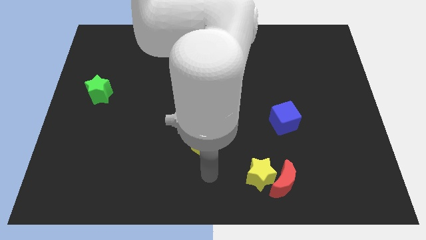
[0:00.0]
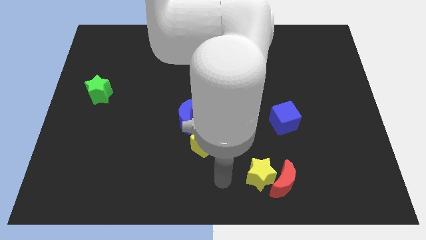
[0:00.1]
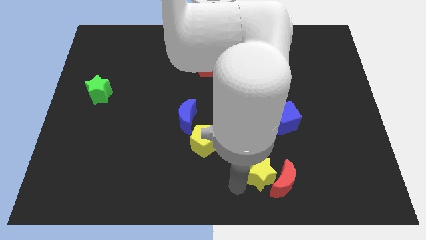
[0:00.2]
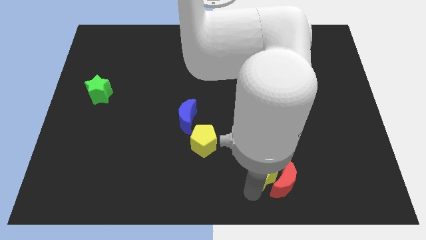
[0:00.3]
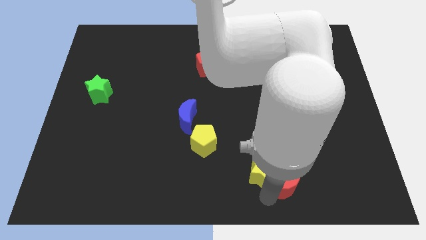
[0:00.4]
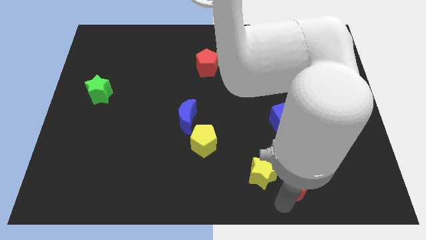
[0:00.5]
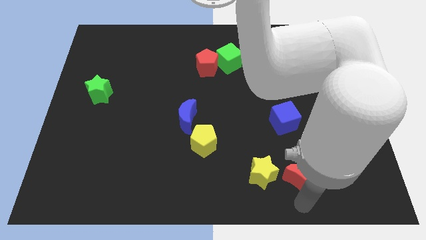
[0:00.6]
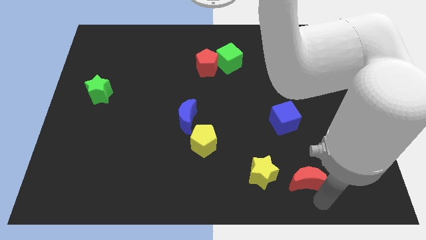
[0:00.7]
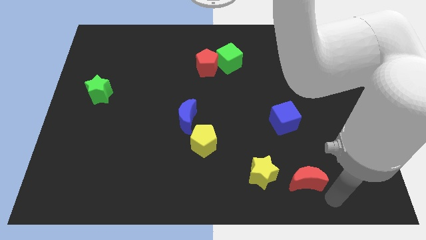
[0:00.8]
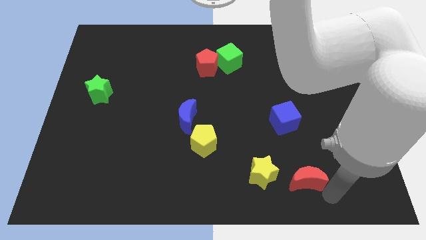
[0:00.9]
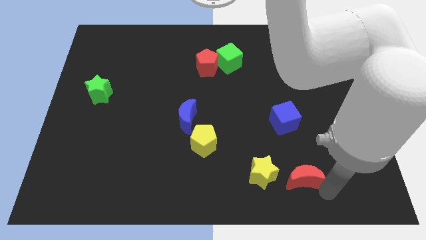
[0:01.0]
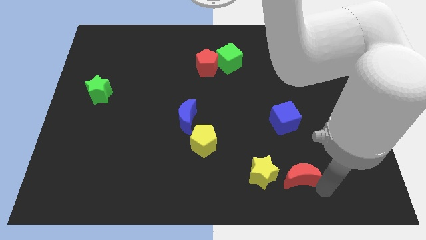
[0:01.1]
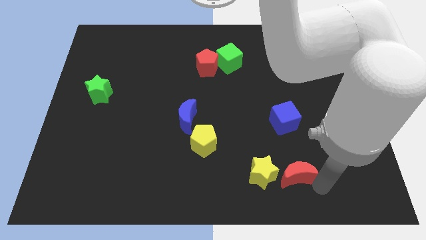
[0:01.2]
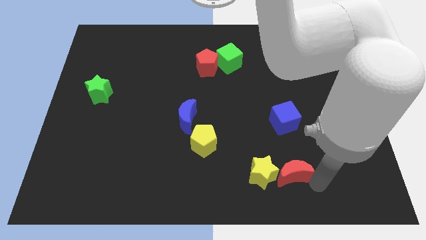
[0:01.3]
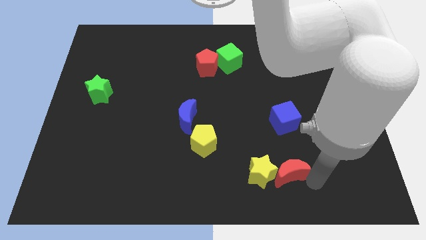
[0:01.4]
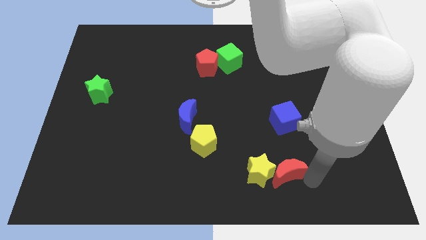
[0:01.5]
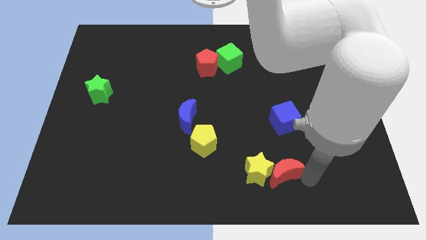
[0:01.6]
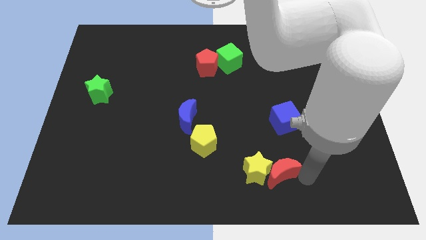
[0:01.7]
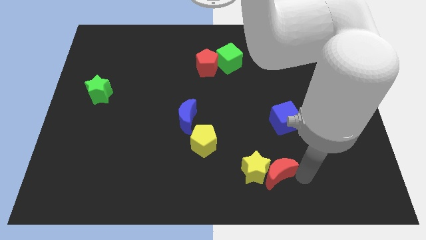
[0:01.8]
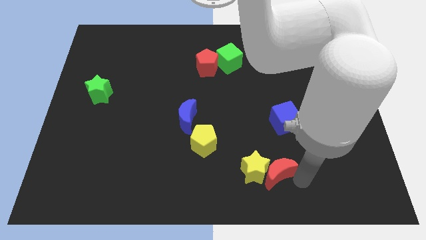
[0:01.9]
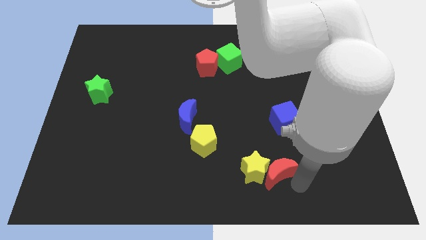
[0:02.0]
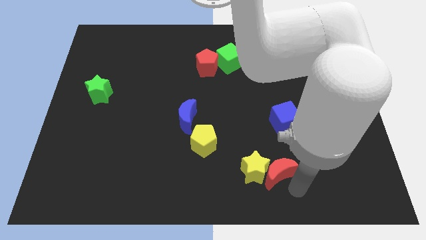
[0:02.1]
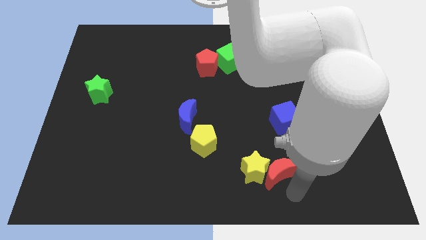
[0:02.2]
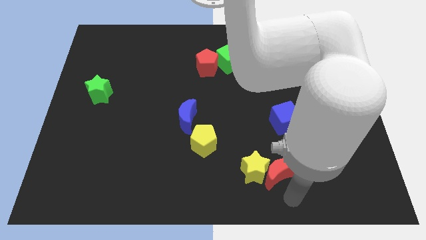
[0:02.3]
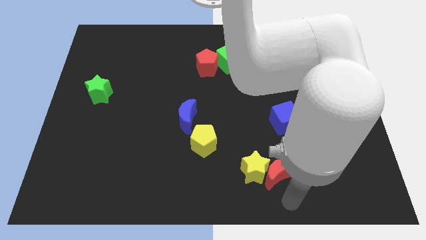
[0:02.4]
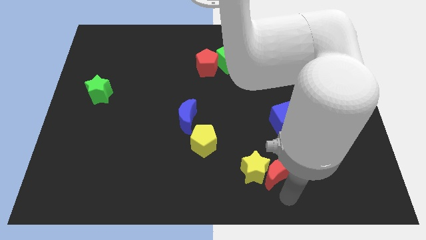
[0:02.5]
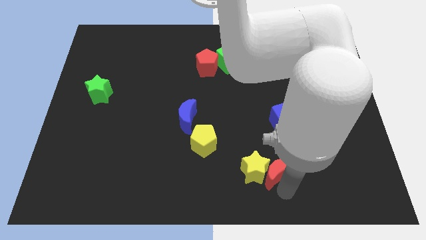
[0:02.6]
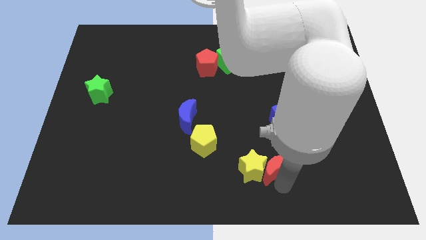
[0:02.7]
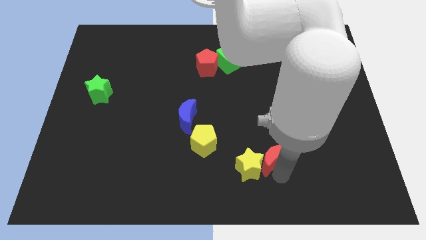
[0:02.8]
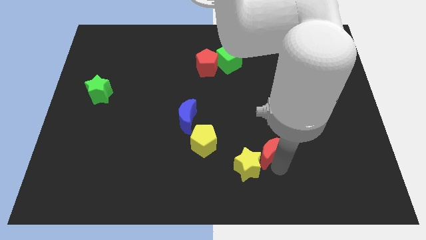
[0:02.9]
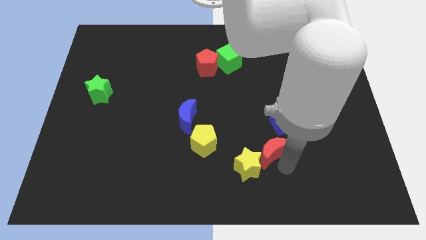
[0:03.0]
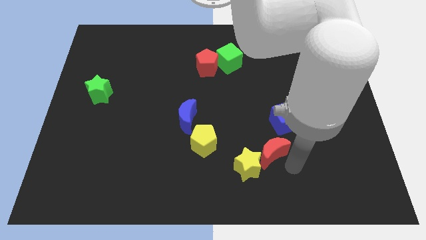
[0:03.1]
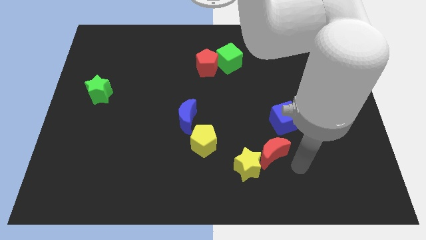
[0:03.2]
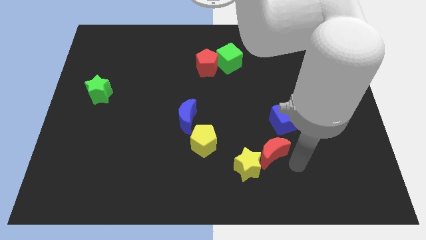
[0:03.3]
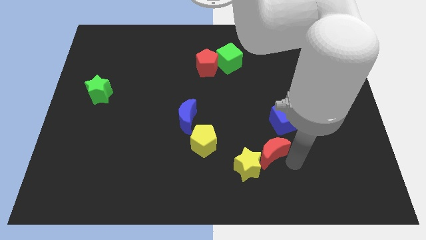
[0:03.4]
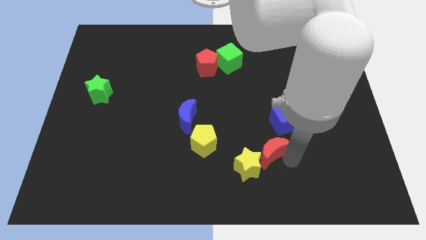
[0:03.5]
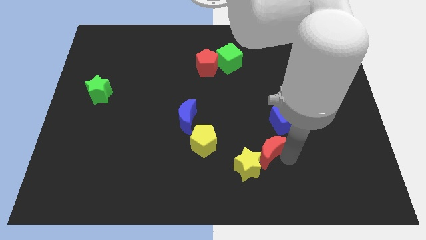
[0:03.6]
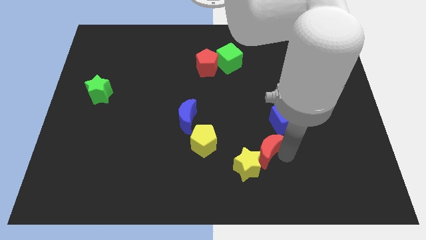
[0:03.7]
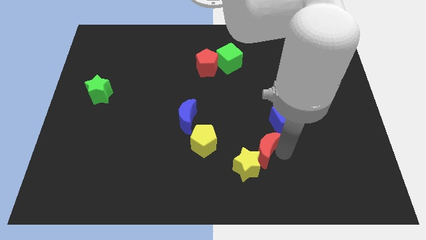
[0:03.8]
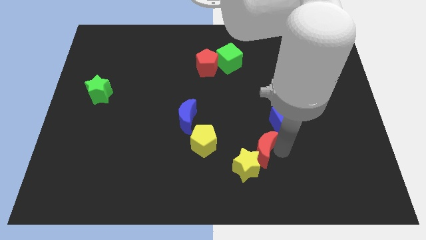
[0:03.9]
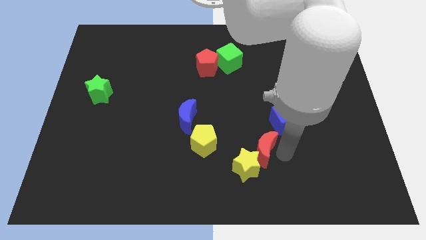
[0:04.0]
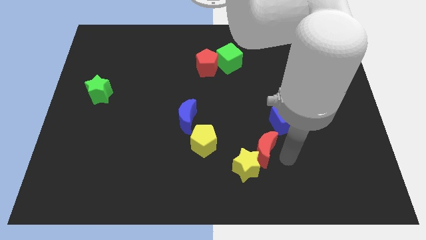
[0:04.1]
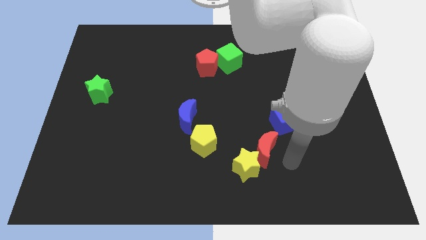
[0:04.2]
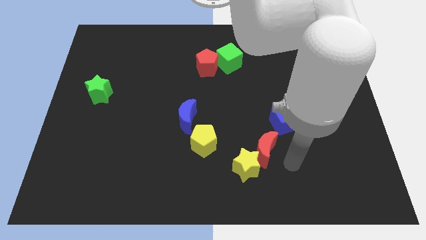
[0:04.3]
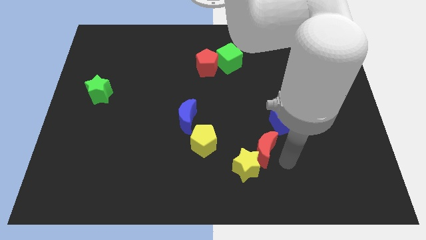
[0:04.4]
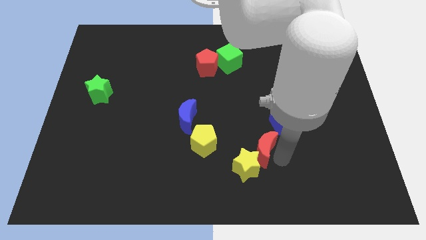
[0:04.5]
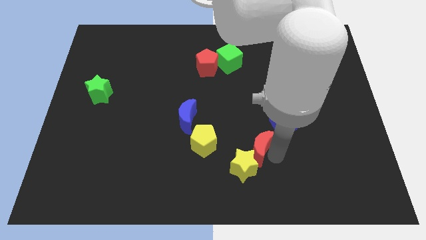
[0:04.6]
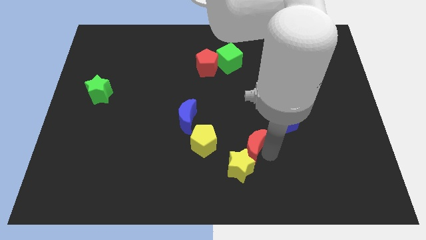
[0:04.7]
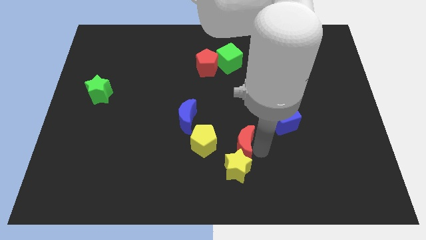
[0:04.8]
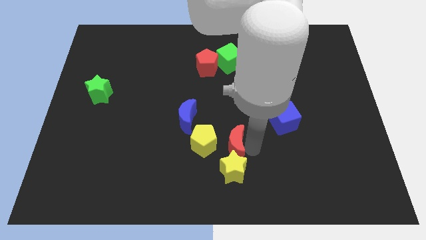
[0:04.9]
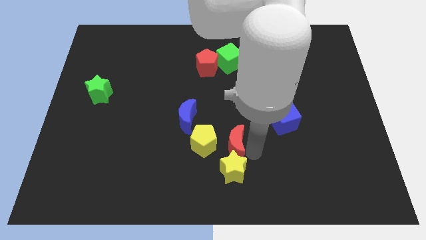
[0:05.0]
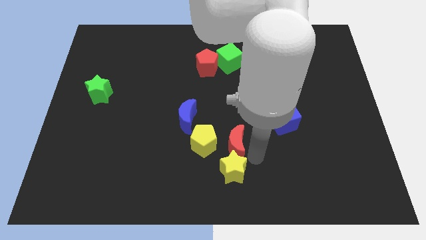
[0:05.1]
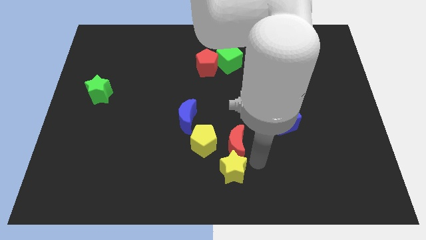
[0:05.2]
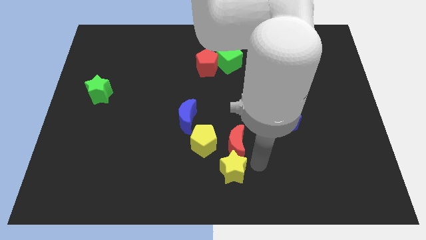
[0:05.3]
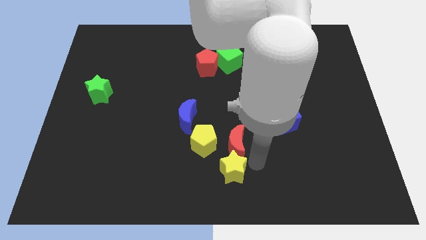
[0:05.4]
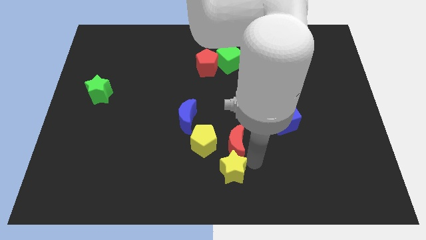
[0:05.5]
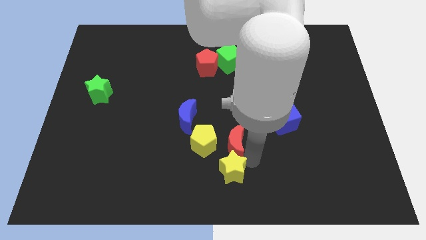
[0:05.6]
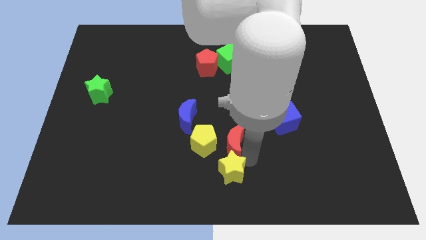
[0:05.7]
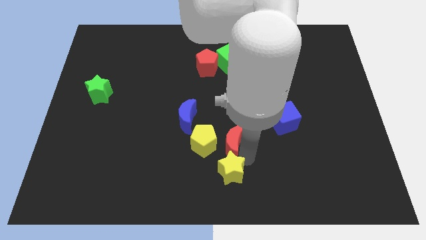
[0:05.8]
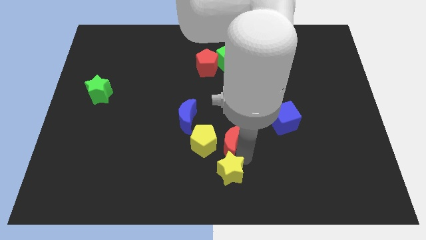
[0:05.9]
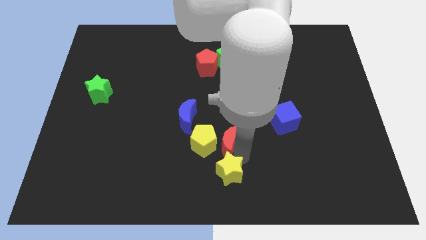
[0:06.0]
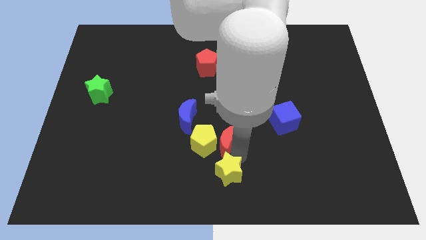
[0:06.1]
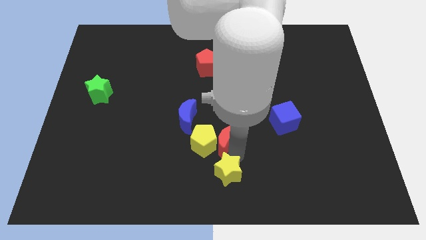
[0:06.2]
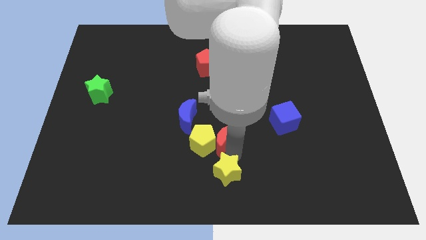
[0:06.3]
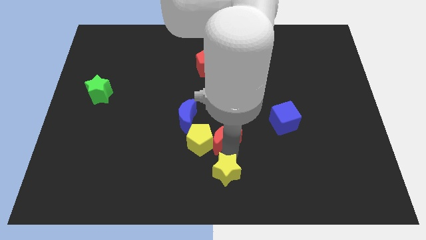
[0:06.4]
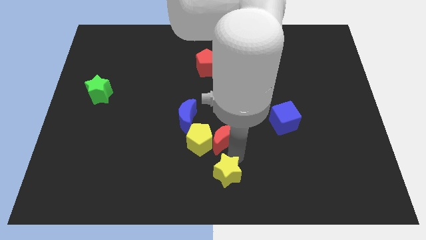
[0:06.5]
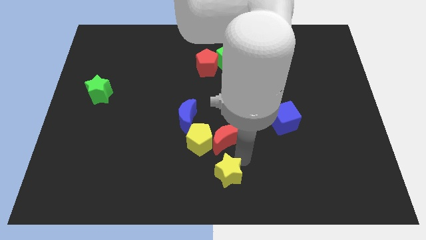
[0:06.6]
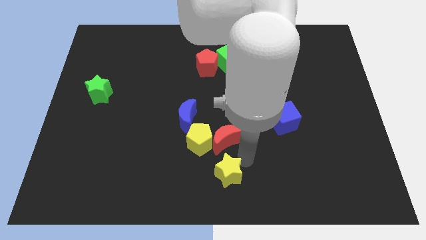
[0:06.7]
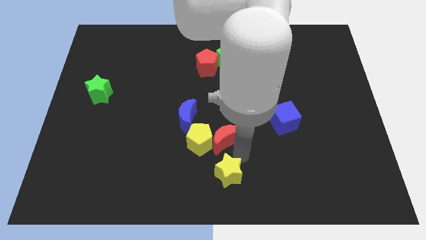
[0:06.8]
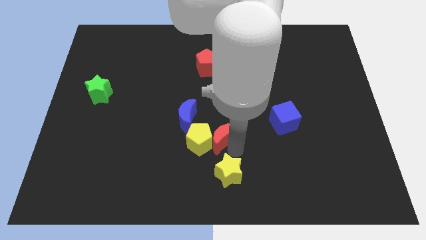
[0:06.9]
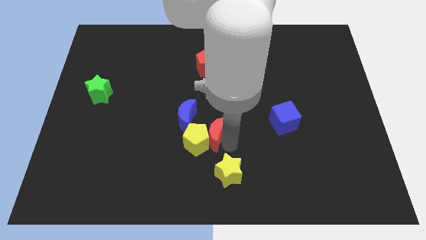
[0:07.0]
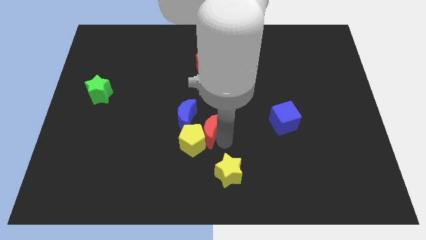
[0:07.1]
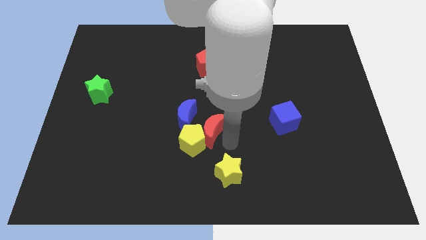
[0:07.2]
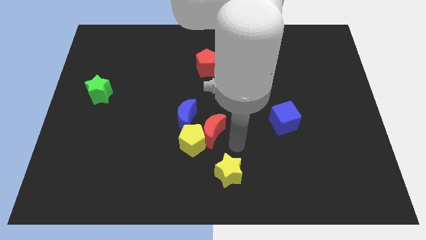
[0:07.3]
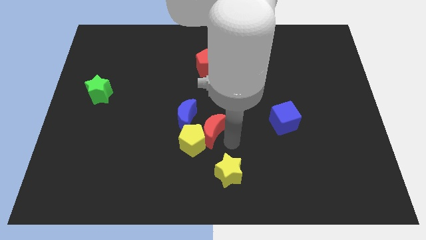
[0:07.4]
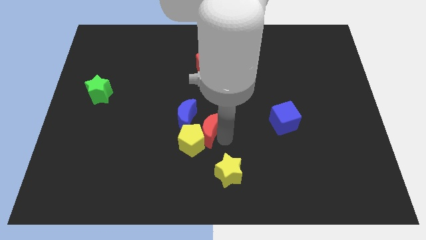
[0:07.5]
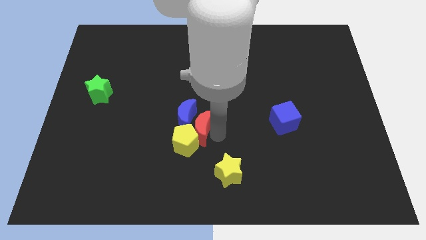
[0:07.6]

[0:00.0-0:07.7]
move the red moon next to the blue moon
